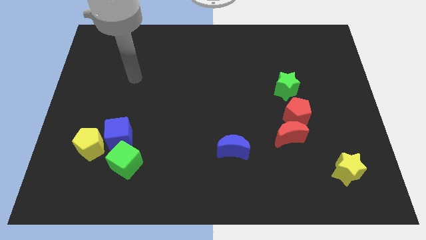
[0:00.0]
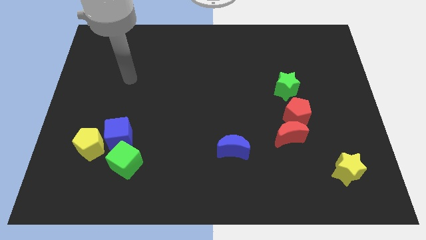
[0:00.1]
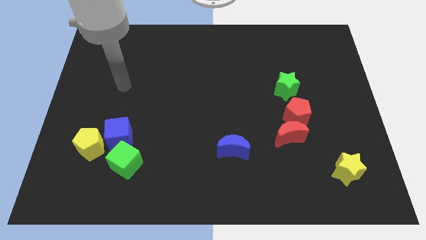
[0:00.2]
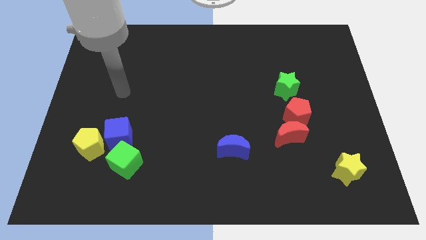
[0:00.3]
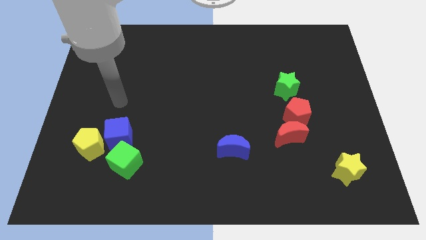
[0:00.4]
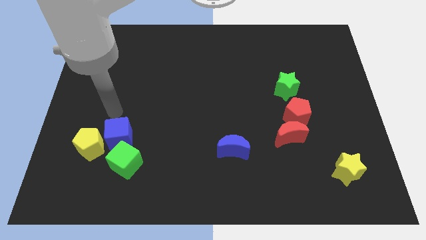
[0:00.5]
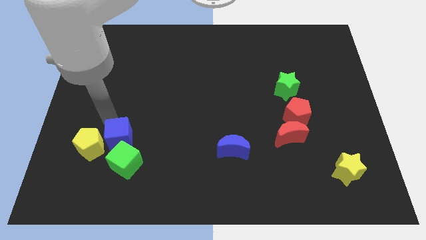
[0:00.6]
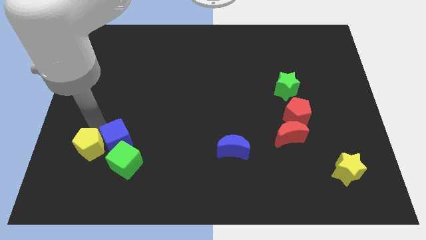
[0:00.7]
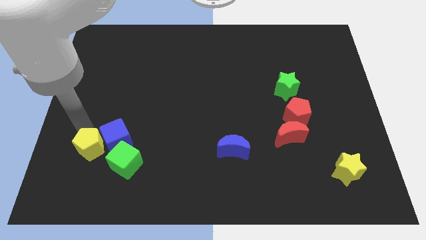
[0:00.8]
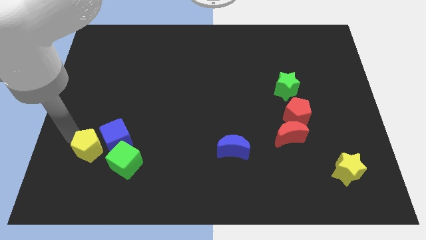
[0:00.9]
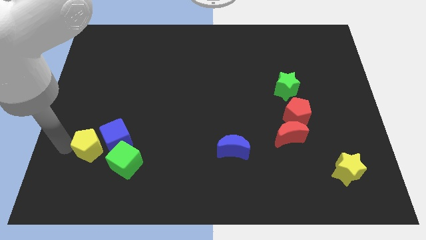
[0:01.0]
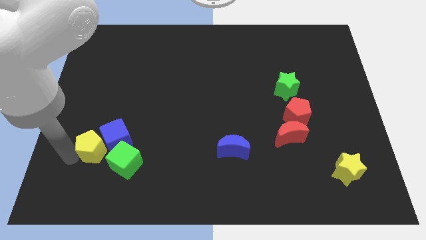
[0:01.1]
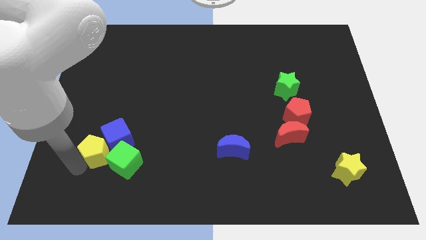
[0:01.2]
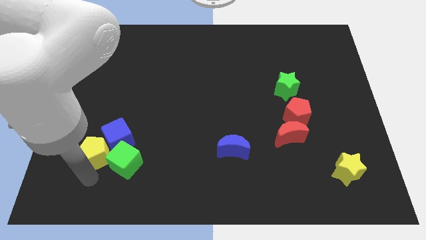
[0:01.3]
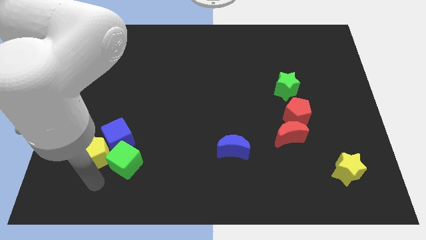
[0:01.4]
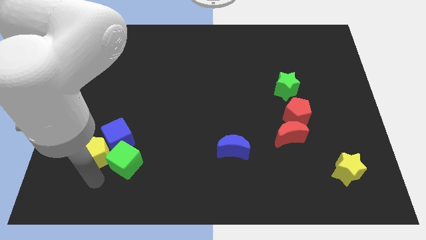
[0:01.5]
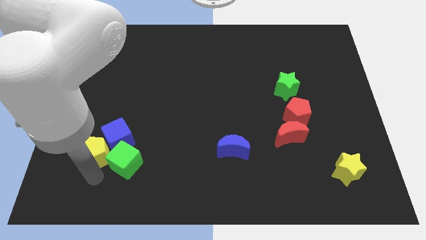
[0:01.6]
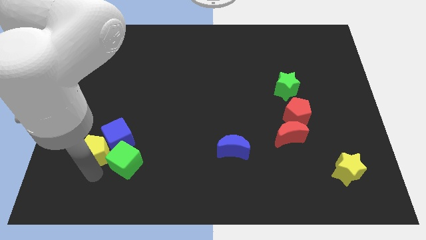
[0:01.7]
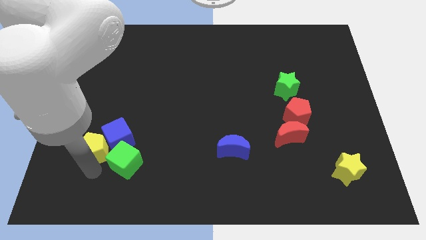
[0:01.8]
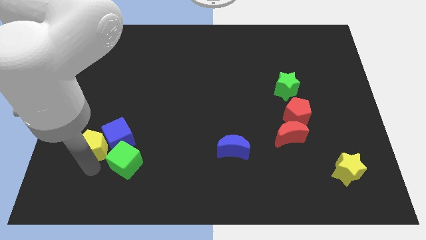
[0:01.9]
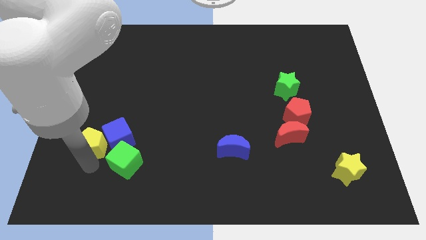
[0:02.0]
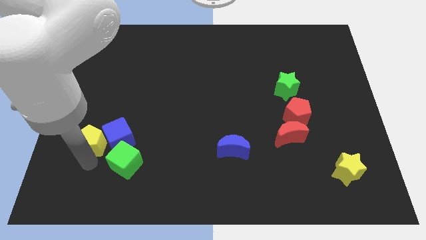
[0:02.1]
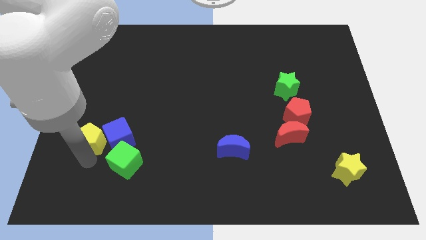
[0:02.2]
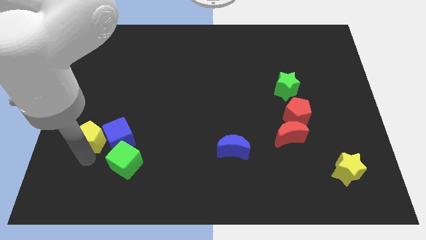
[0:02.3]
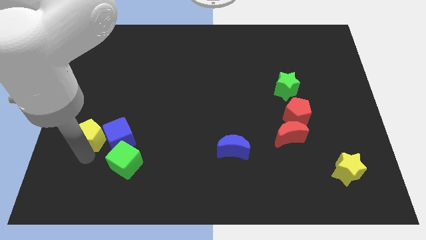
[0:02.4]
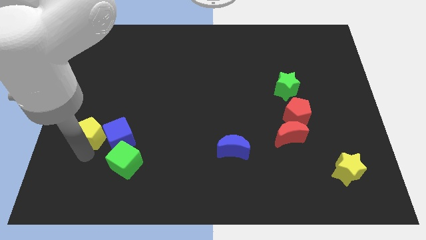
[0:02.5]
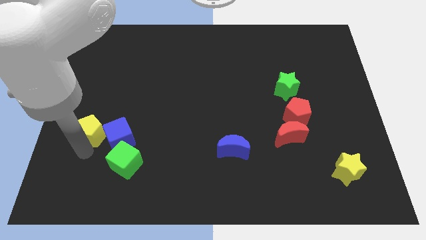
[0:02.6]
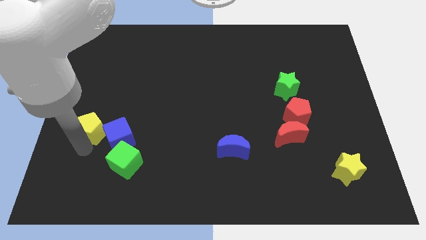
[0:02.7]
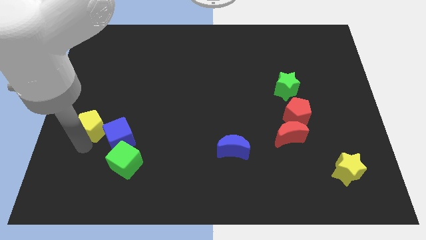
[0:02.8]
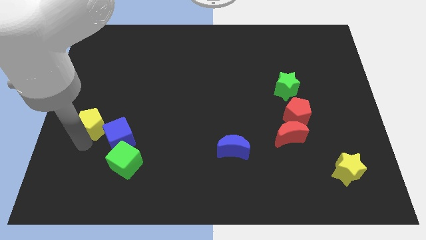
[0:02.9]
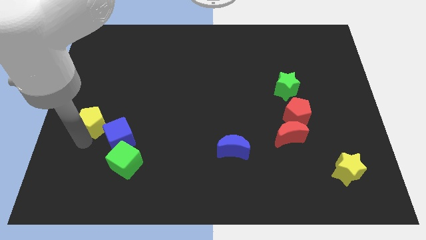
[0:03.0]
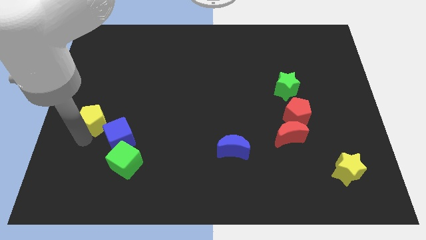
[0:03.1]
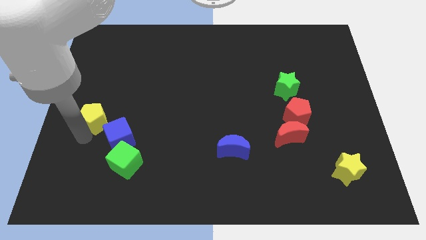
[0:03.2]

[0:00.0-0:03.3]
slightly move the yellow pentagon up

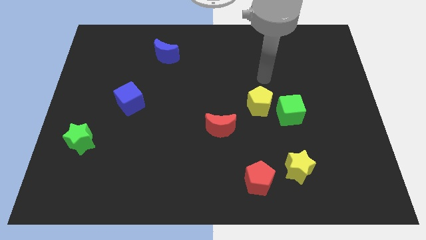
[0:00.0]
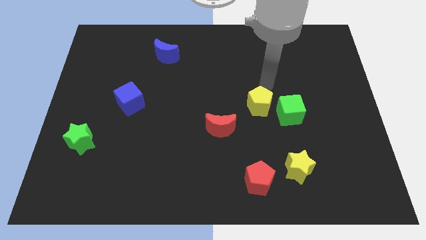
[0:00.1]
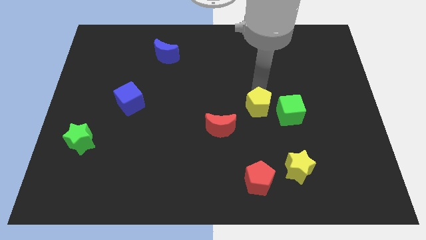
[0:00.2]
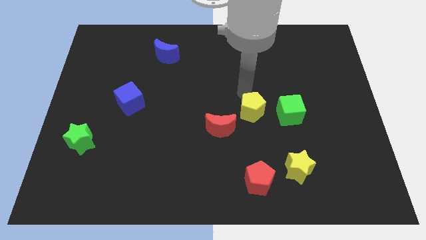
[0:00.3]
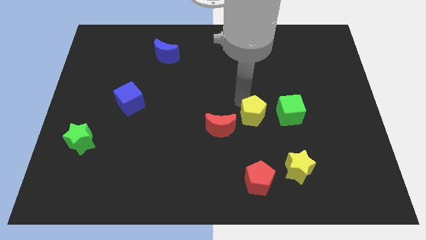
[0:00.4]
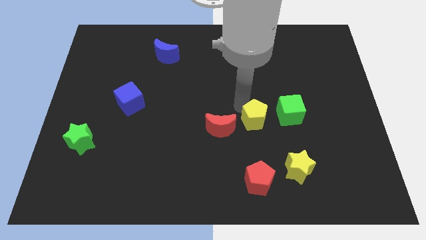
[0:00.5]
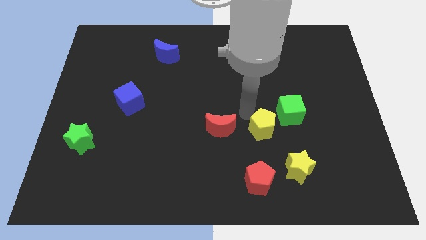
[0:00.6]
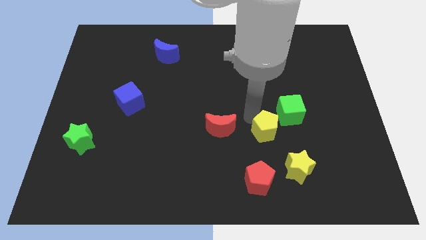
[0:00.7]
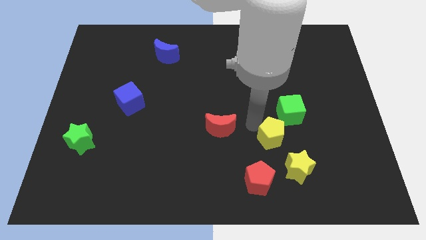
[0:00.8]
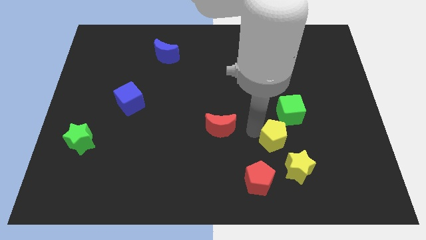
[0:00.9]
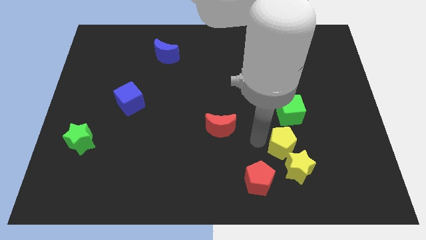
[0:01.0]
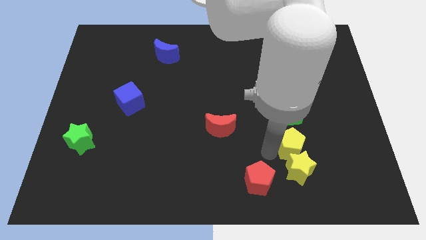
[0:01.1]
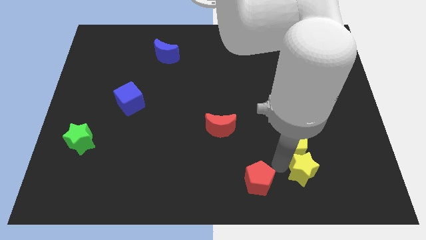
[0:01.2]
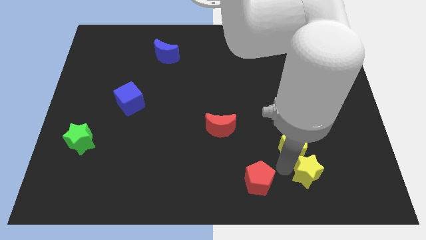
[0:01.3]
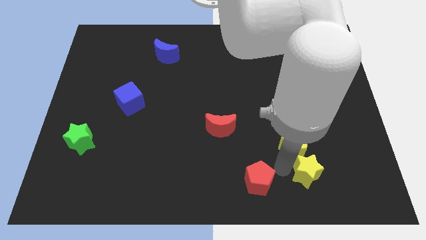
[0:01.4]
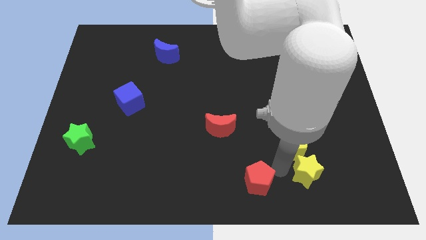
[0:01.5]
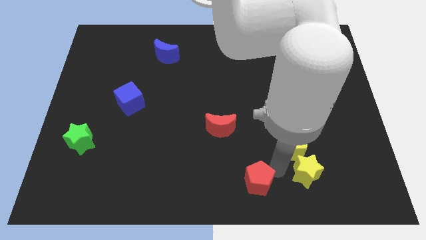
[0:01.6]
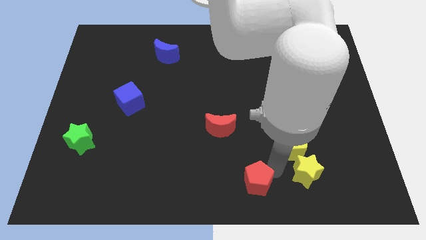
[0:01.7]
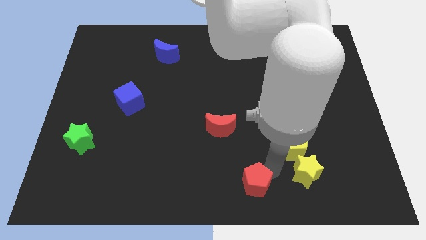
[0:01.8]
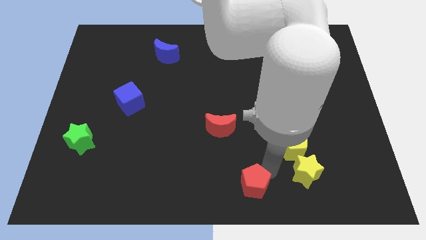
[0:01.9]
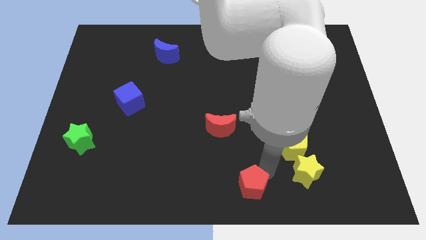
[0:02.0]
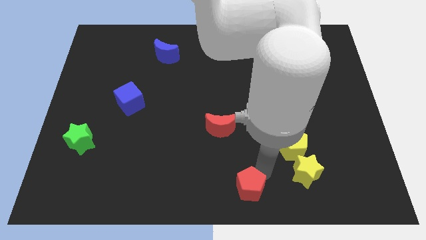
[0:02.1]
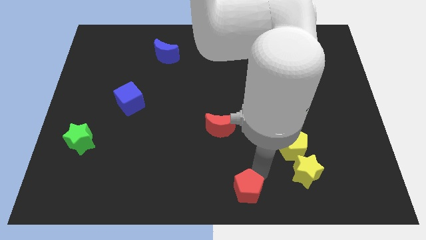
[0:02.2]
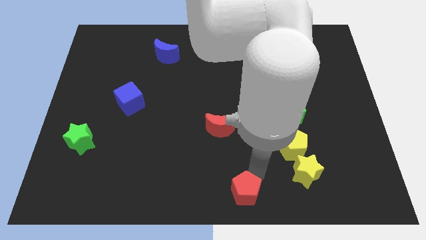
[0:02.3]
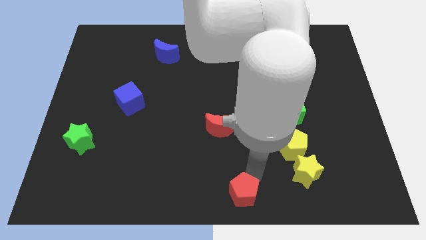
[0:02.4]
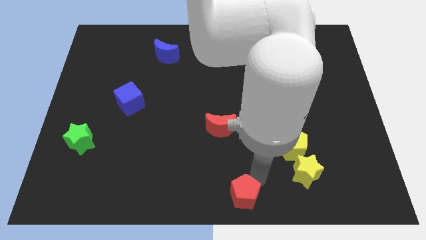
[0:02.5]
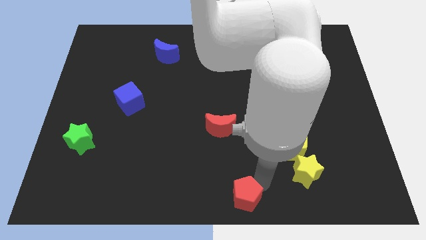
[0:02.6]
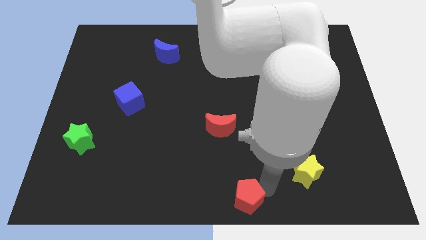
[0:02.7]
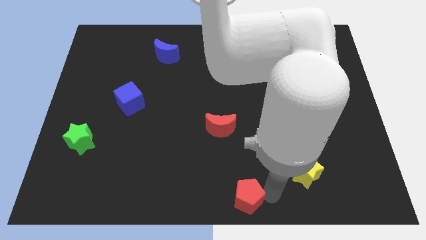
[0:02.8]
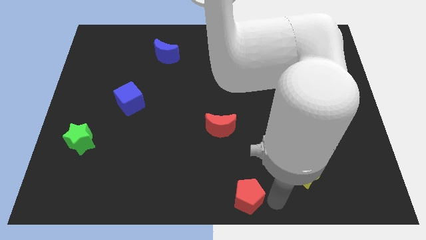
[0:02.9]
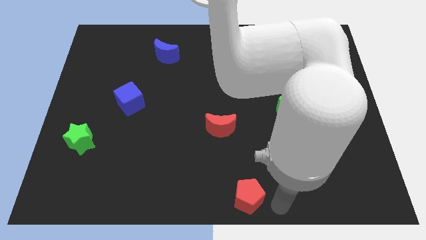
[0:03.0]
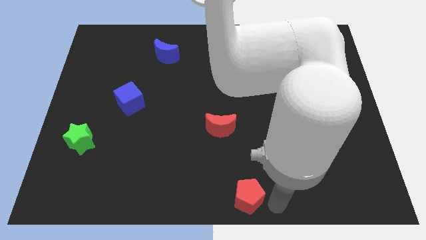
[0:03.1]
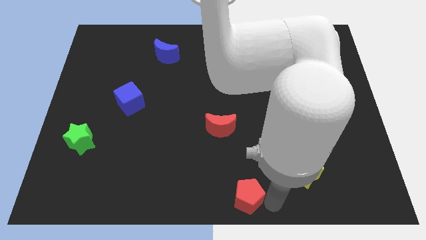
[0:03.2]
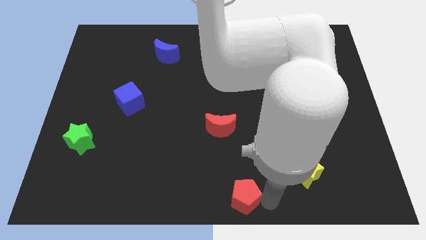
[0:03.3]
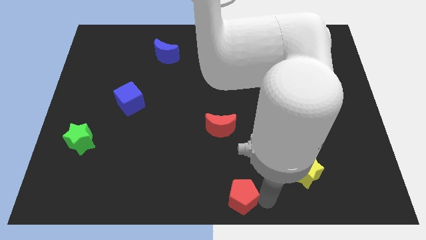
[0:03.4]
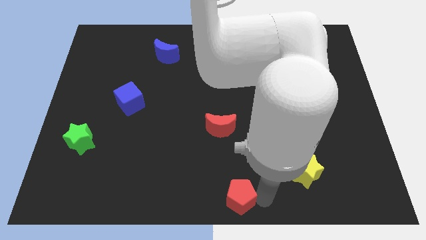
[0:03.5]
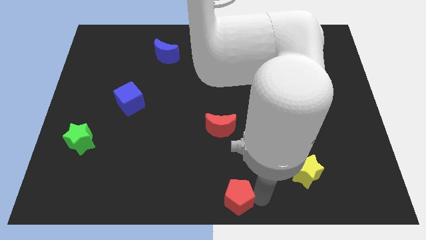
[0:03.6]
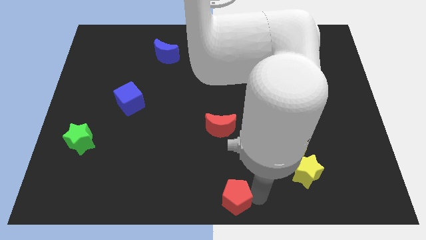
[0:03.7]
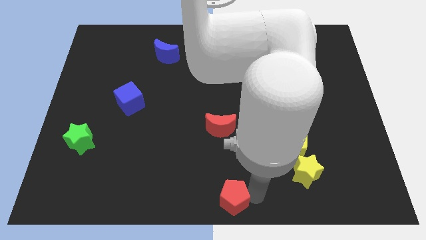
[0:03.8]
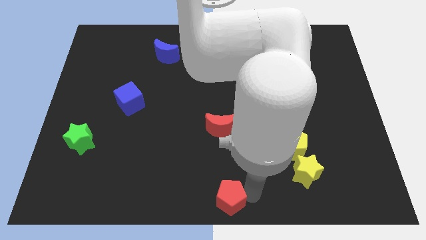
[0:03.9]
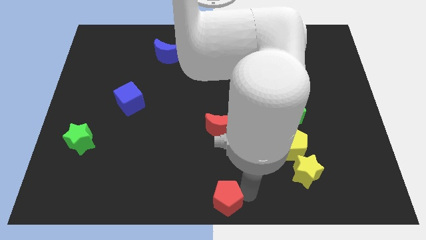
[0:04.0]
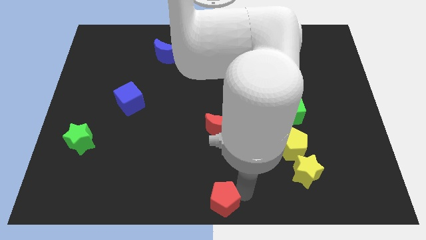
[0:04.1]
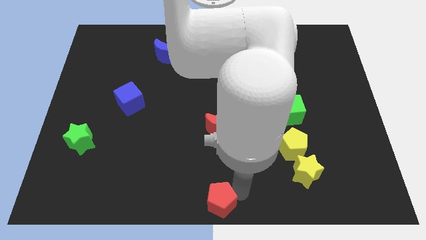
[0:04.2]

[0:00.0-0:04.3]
slightly push the red pentagon left
